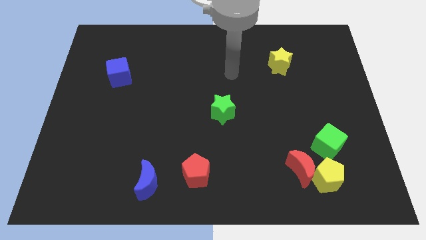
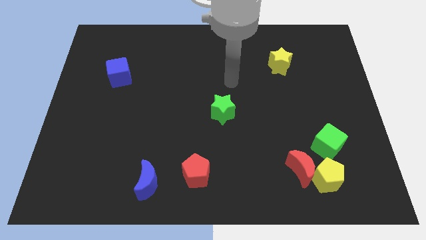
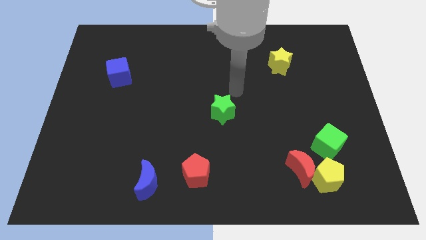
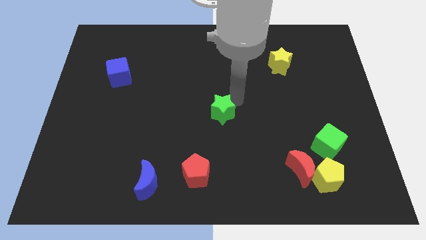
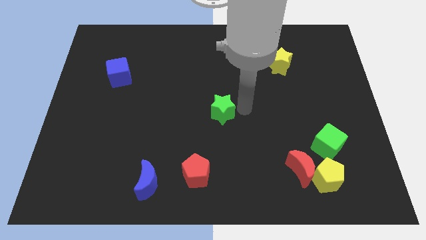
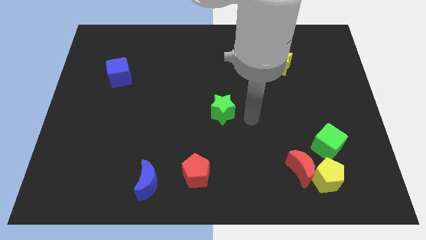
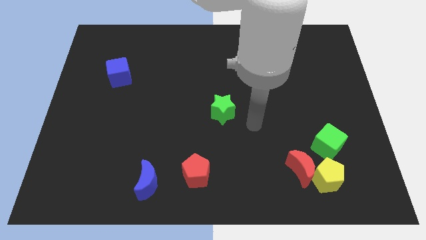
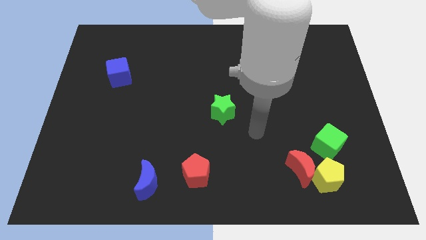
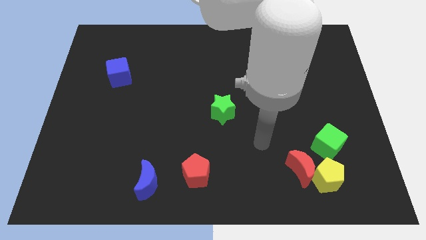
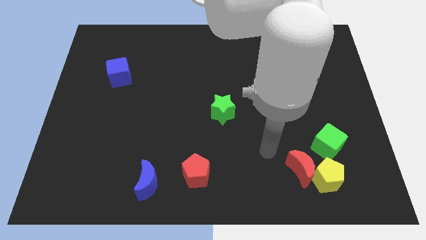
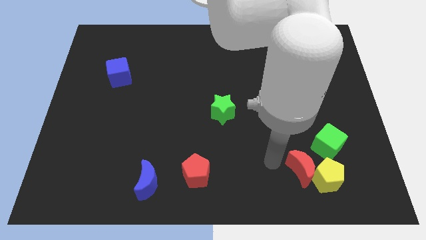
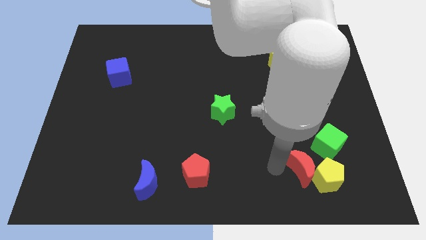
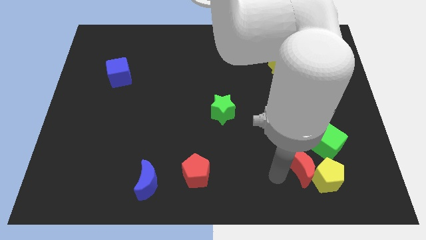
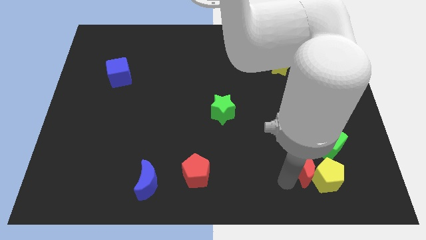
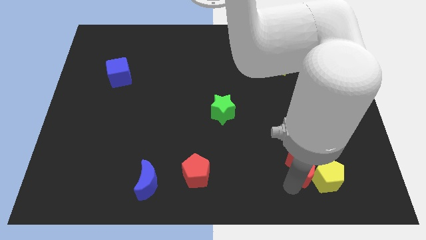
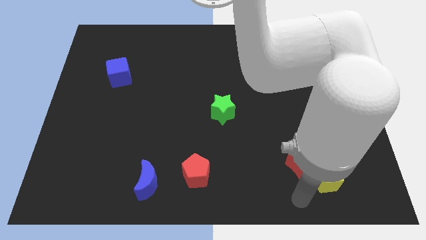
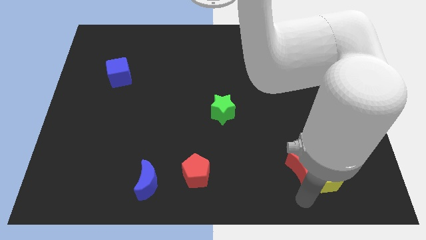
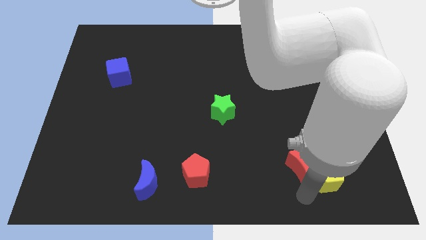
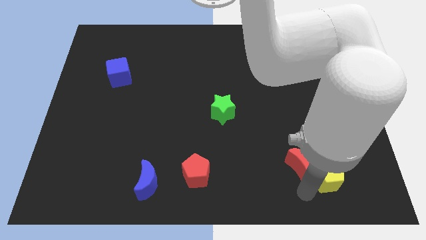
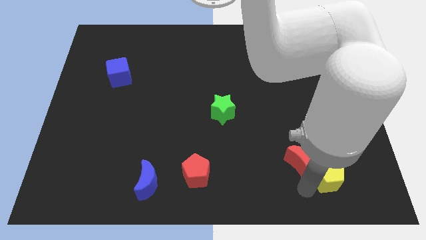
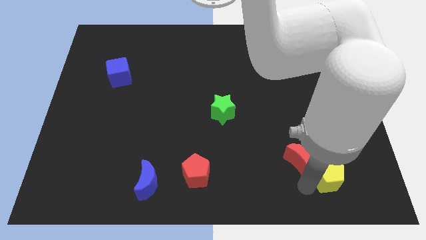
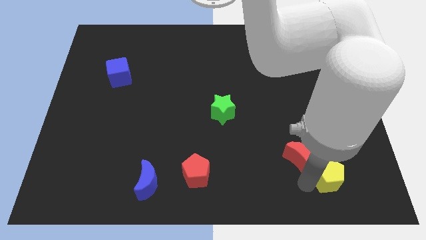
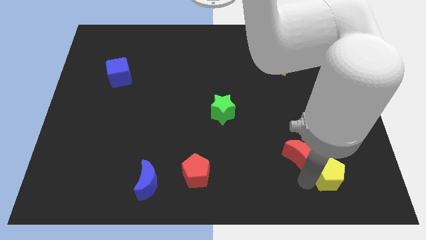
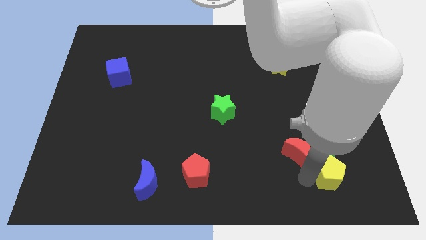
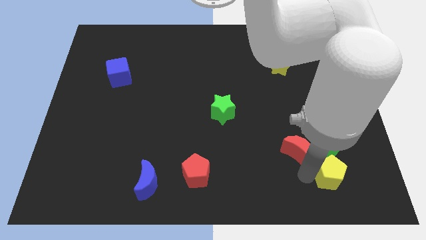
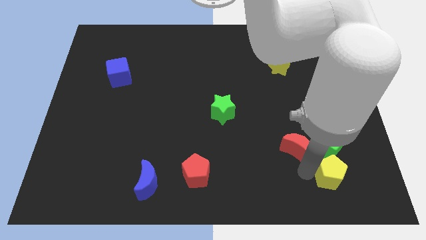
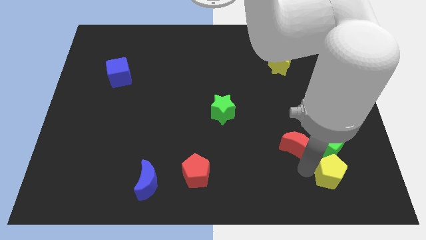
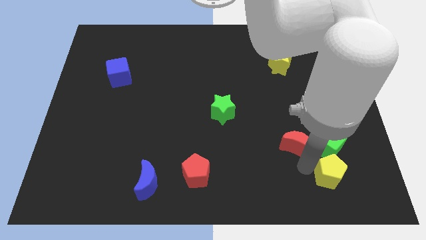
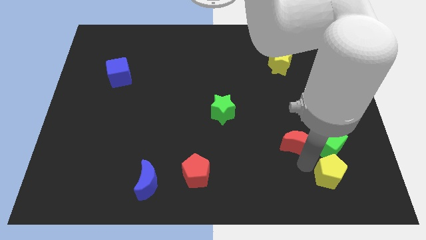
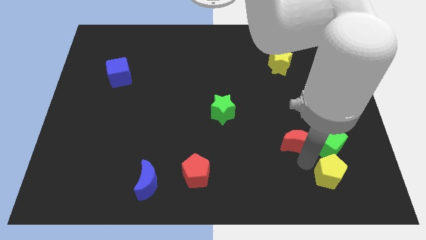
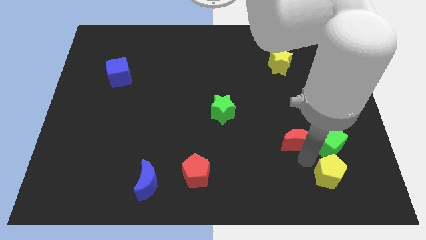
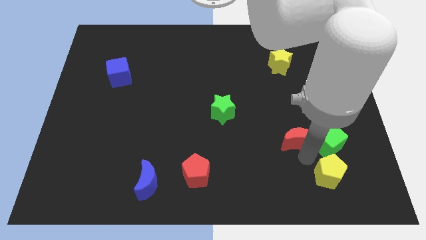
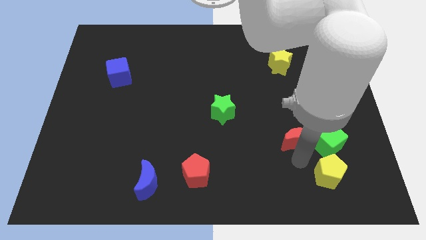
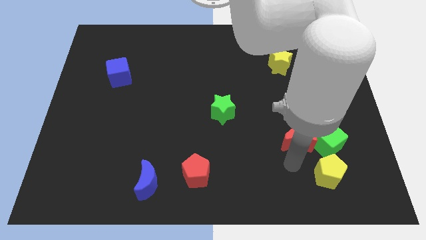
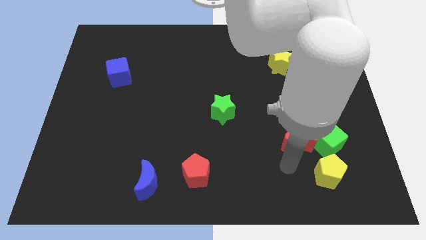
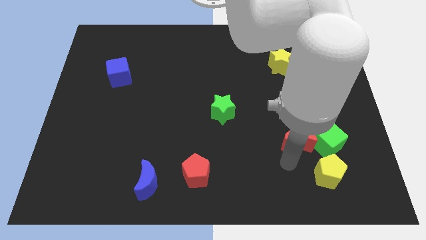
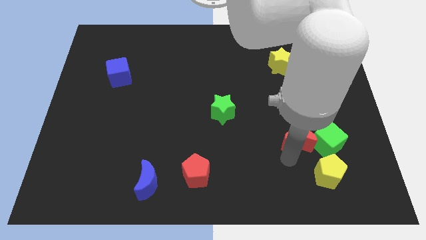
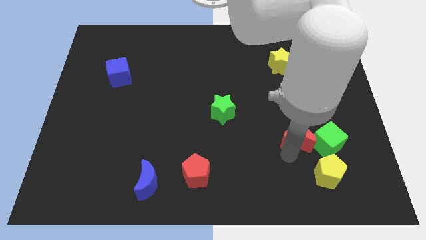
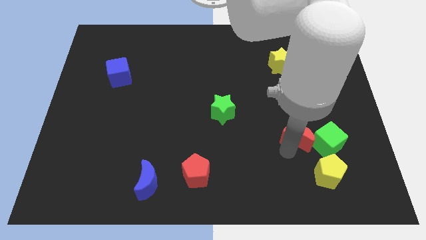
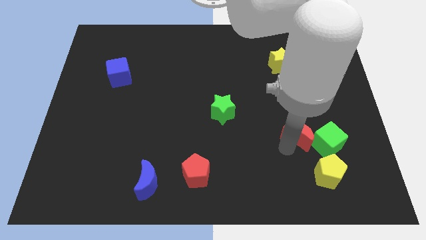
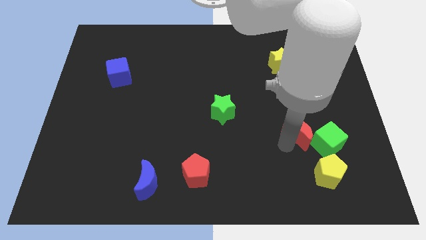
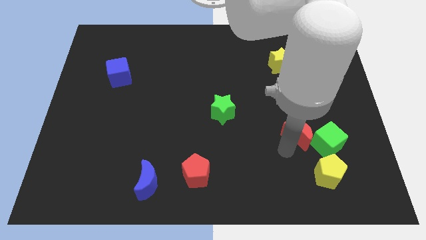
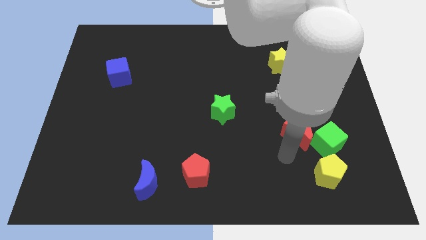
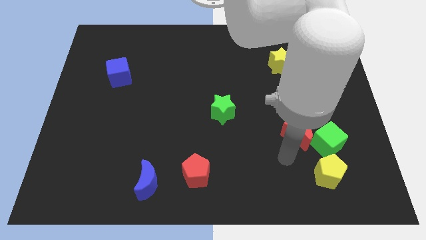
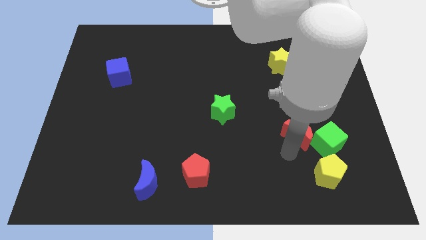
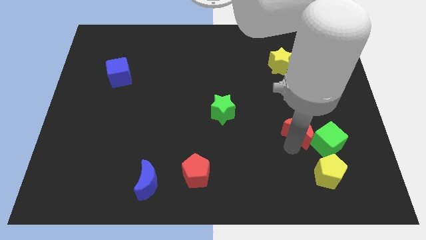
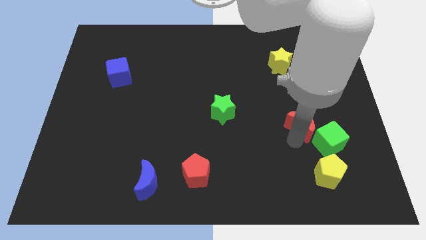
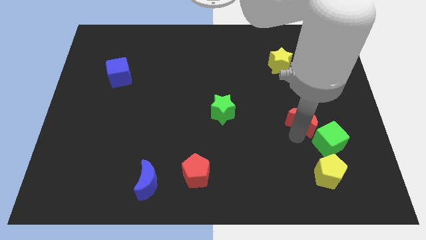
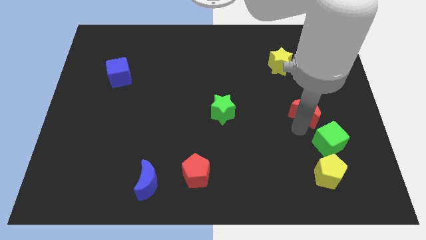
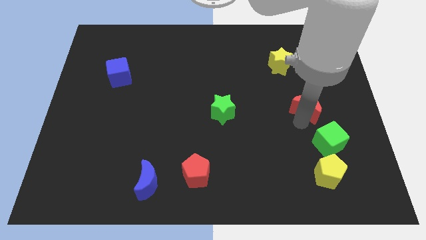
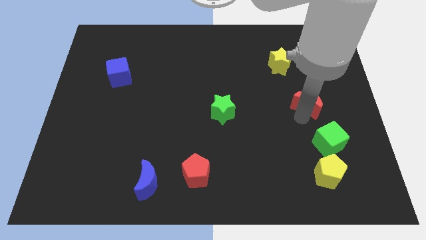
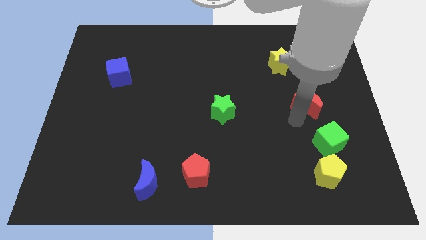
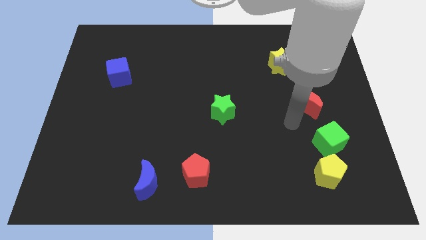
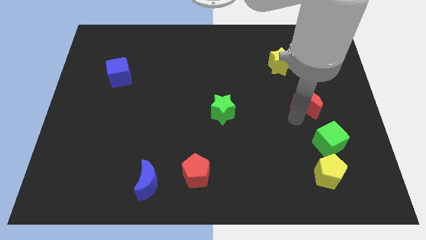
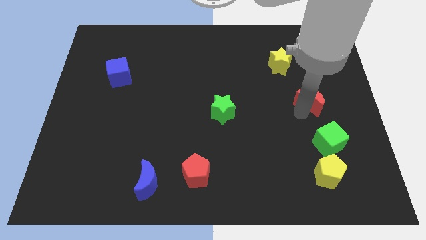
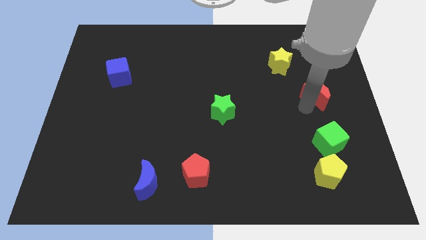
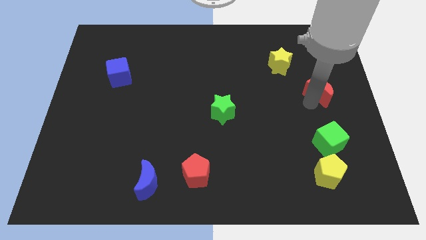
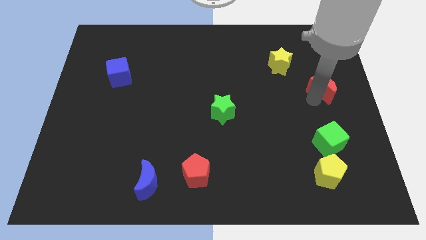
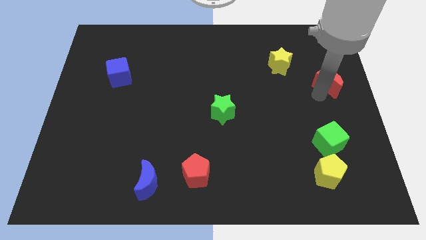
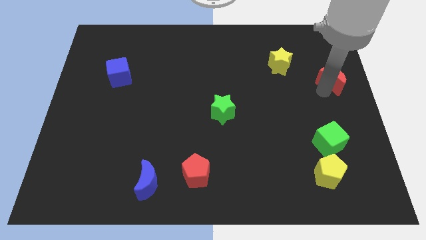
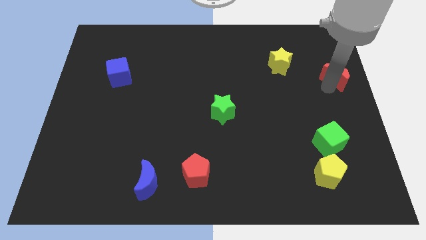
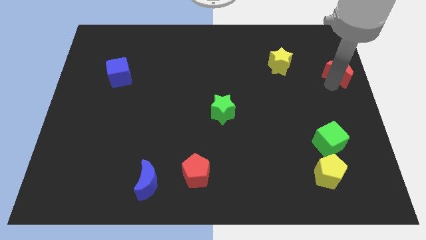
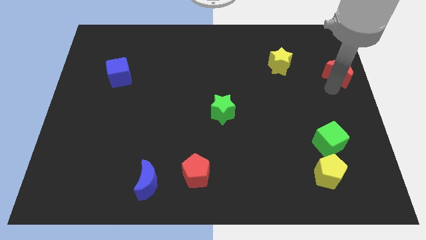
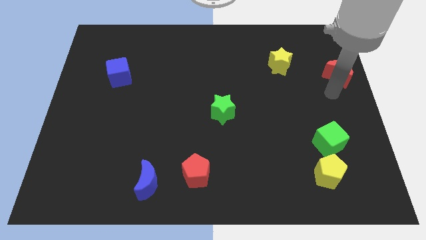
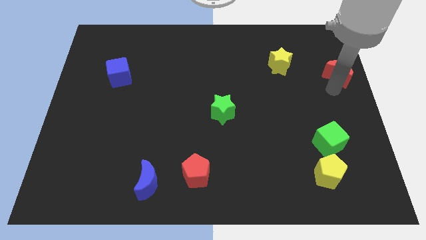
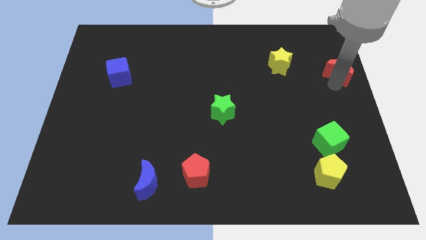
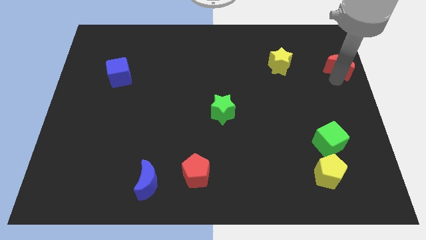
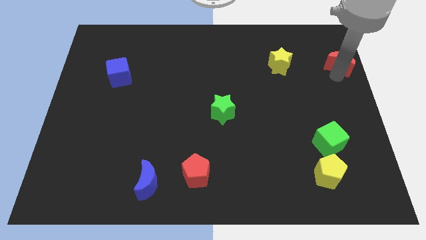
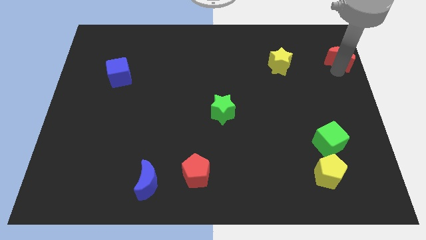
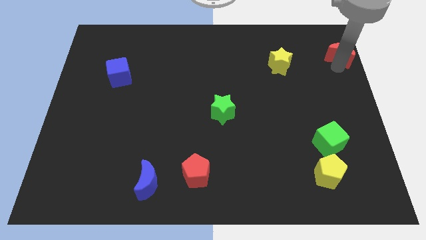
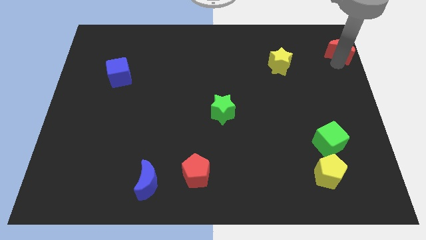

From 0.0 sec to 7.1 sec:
put the red moon to the upper right corner
